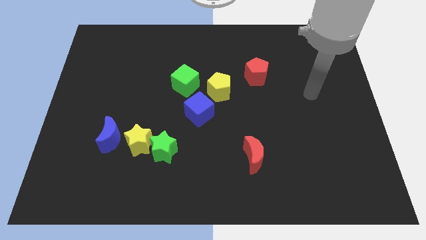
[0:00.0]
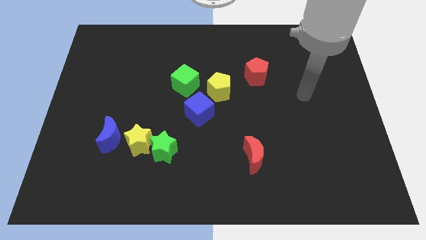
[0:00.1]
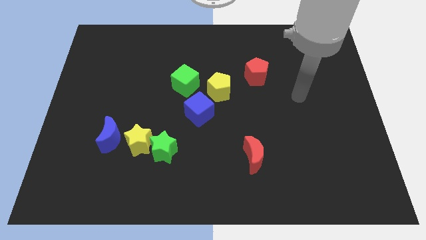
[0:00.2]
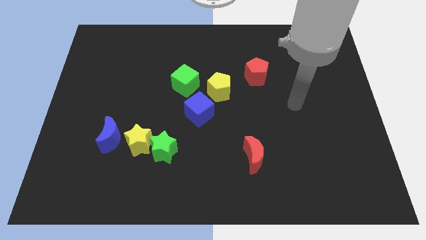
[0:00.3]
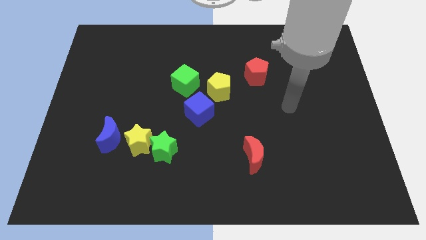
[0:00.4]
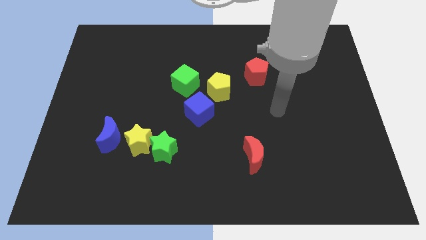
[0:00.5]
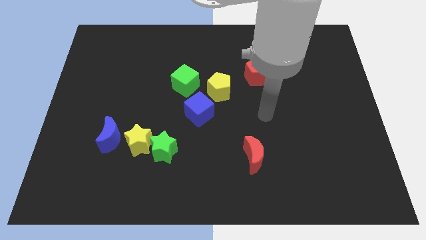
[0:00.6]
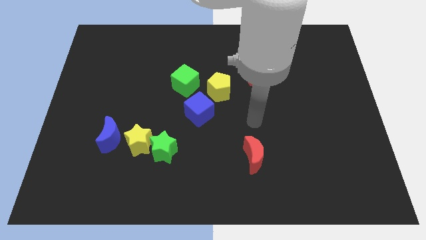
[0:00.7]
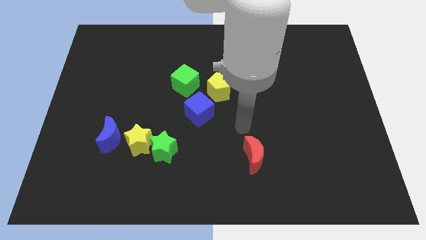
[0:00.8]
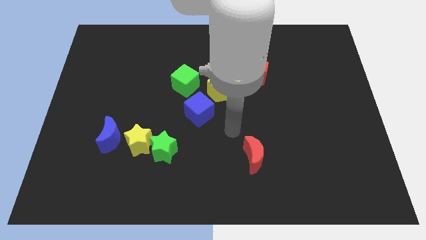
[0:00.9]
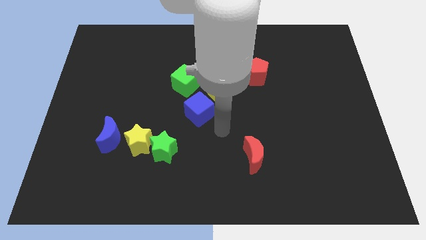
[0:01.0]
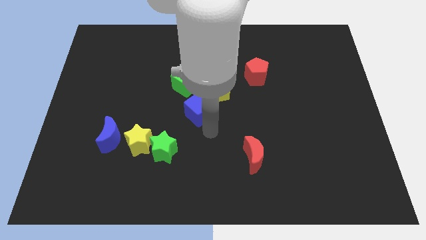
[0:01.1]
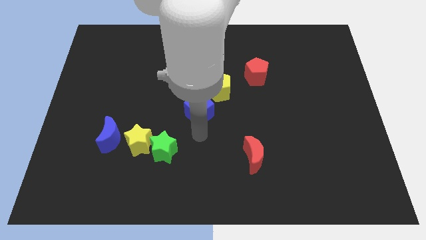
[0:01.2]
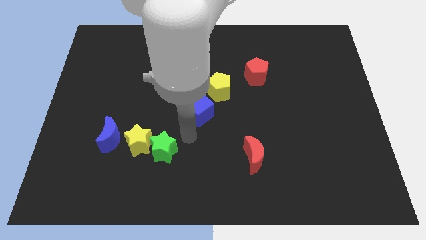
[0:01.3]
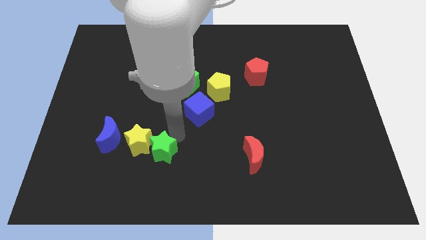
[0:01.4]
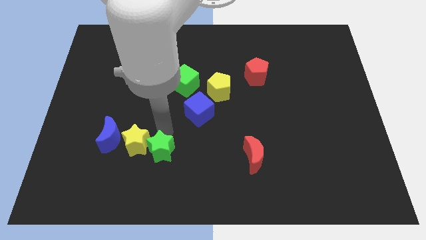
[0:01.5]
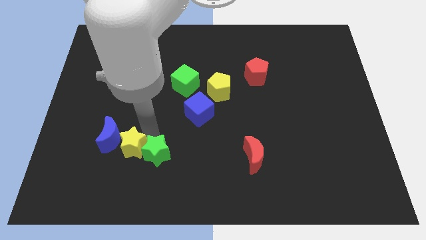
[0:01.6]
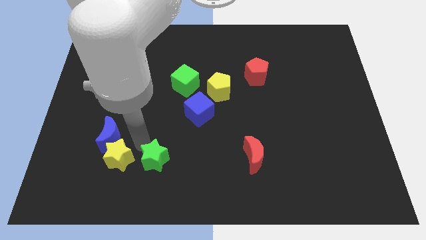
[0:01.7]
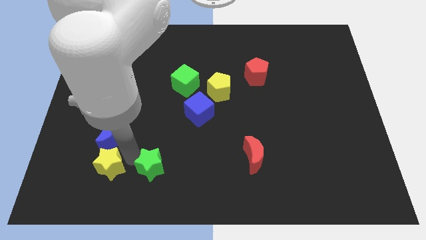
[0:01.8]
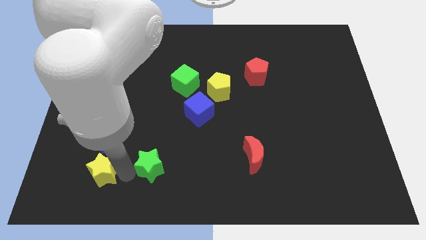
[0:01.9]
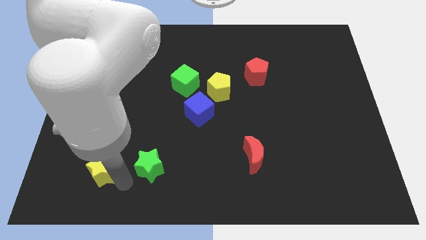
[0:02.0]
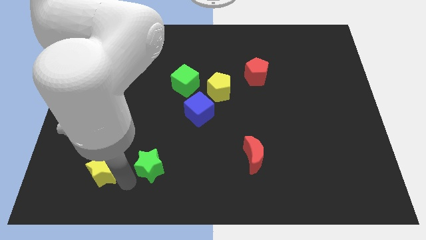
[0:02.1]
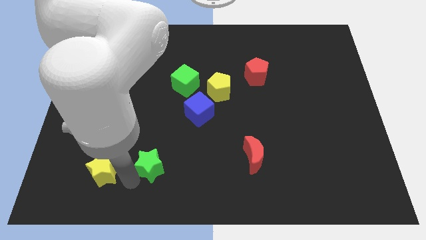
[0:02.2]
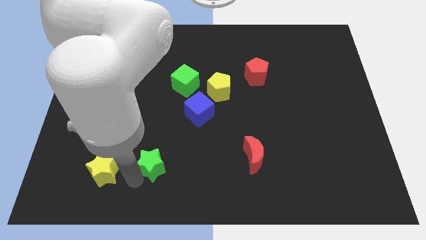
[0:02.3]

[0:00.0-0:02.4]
separate the green star from the yellow star

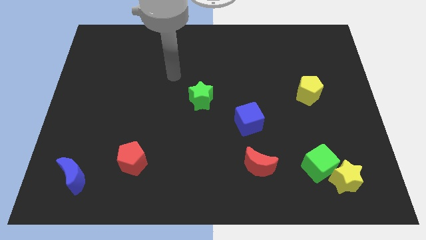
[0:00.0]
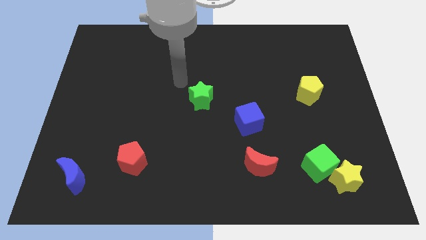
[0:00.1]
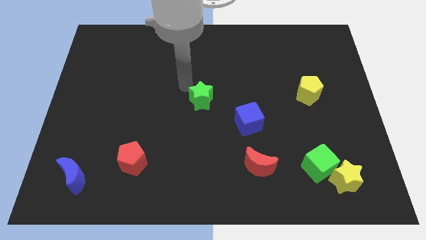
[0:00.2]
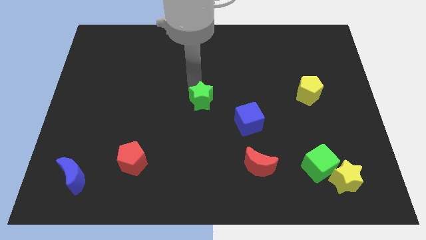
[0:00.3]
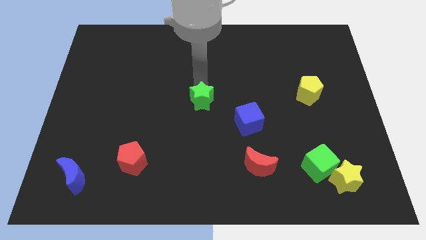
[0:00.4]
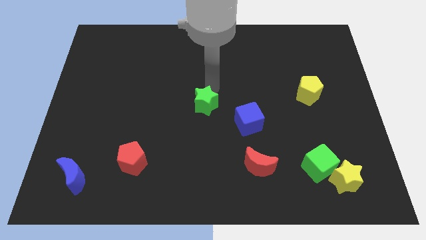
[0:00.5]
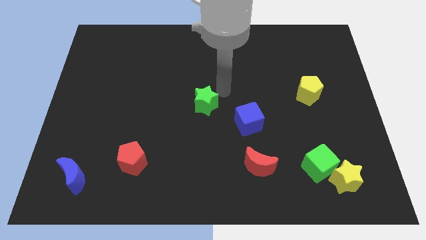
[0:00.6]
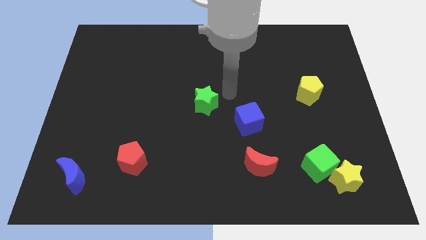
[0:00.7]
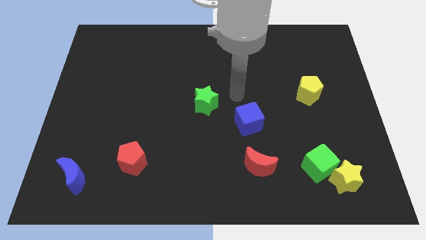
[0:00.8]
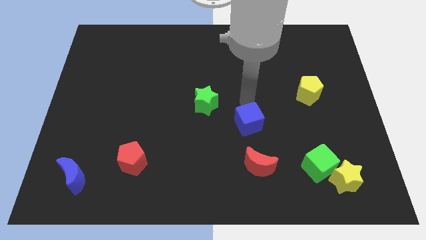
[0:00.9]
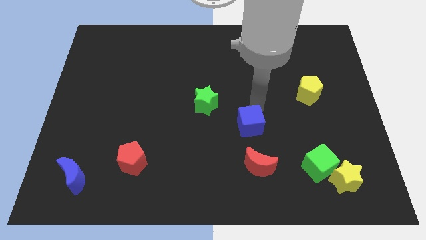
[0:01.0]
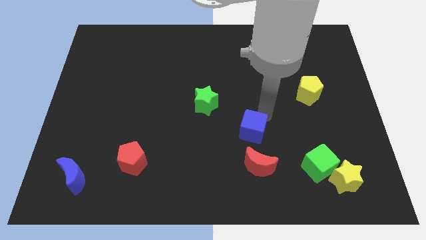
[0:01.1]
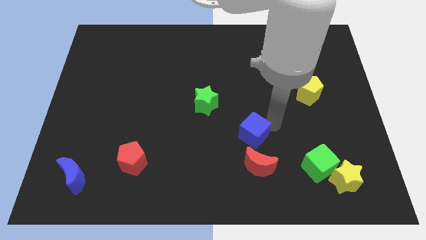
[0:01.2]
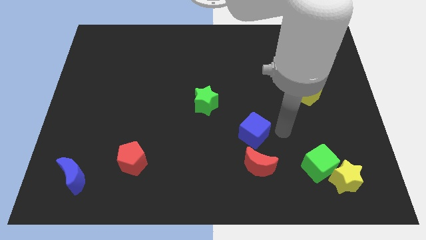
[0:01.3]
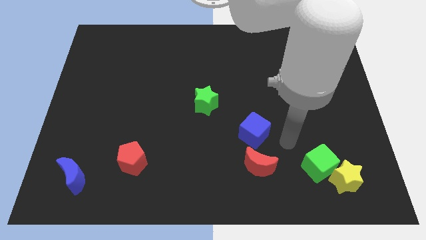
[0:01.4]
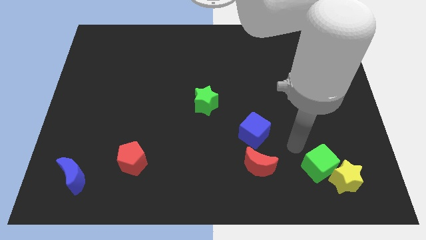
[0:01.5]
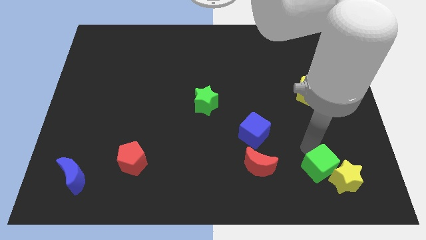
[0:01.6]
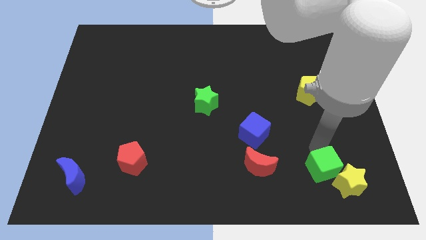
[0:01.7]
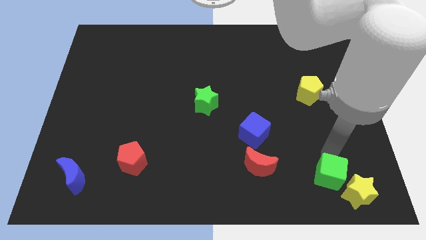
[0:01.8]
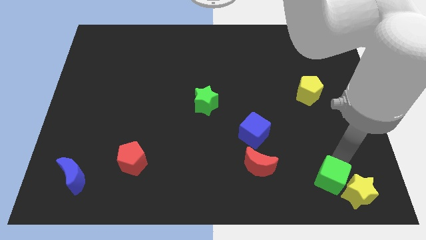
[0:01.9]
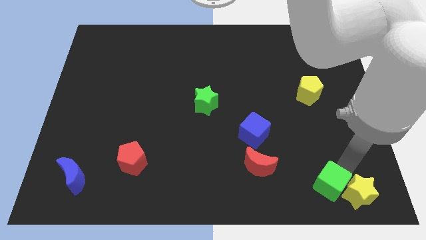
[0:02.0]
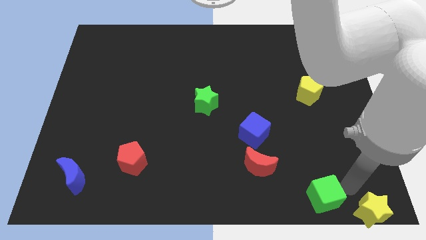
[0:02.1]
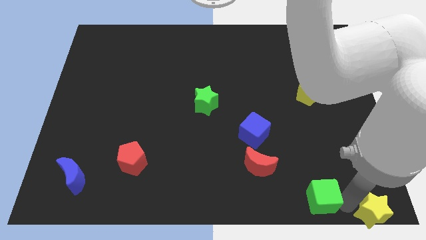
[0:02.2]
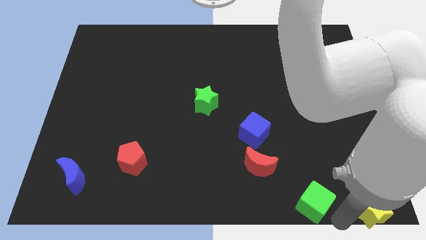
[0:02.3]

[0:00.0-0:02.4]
move the green cube away from the yellow star

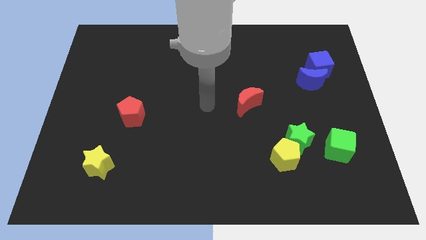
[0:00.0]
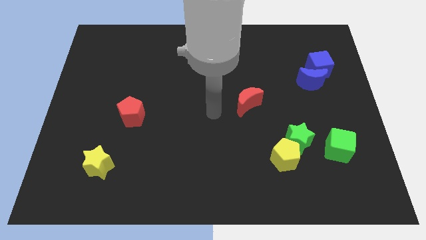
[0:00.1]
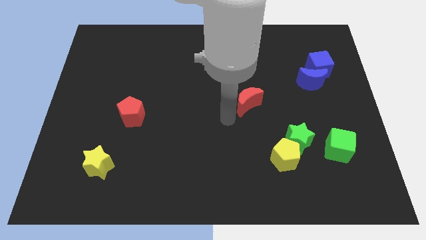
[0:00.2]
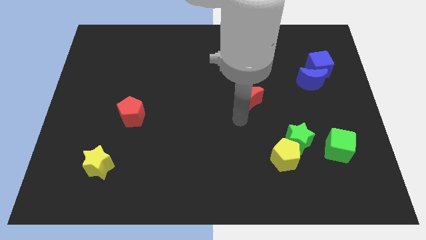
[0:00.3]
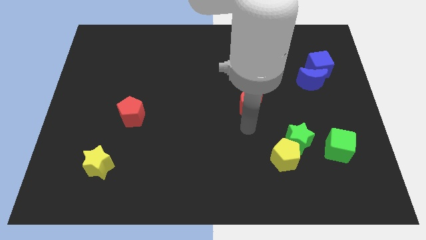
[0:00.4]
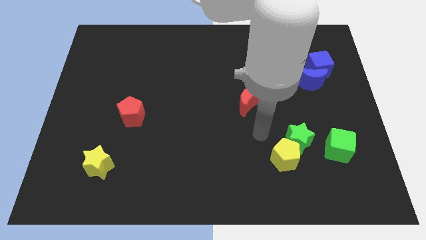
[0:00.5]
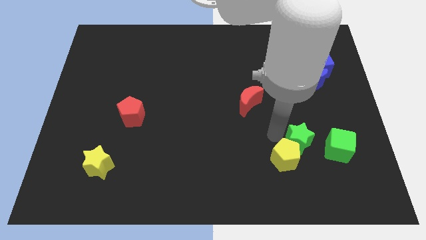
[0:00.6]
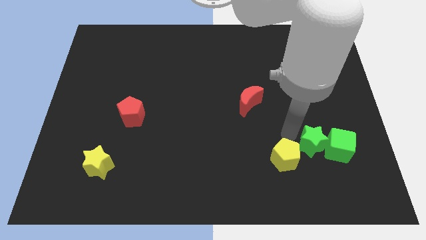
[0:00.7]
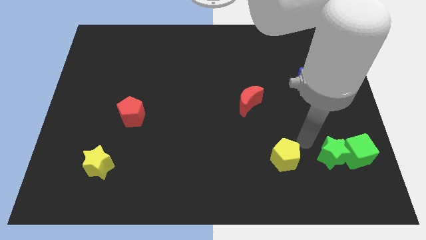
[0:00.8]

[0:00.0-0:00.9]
pull the yellow pentagon apart from the green star

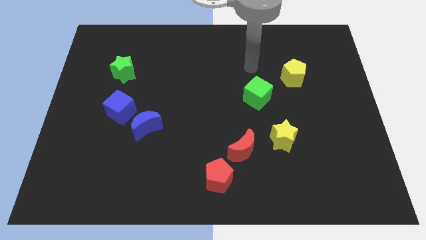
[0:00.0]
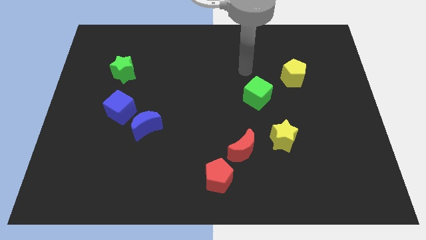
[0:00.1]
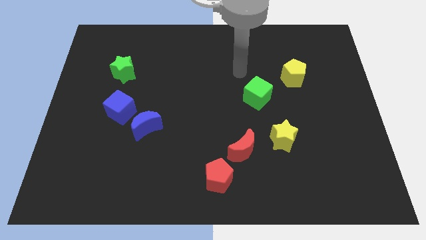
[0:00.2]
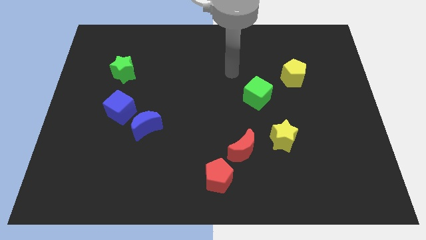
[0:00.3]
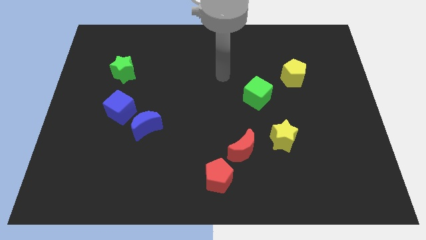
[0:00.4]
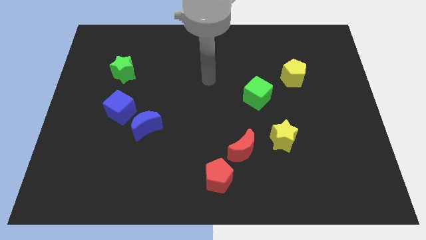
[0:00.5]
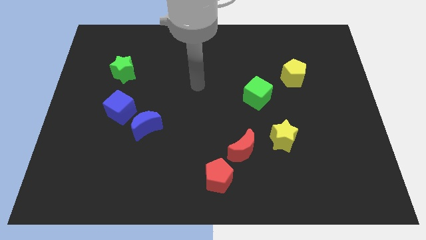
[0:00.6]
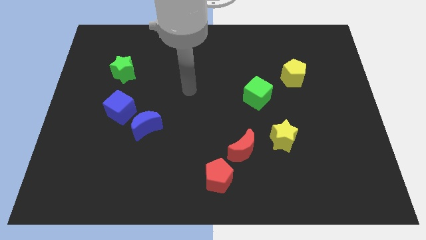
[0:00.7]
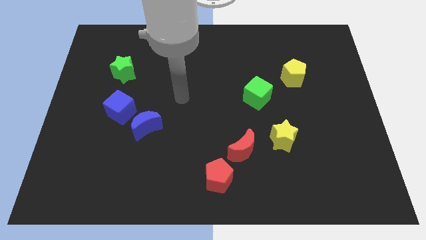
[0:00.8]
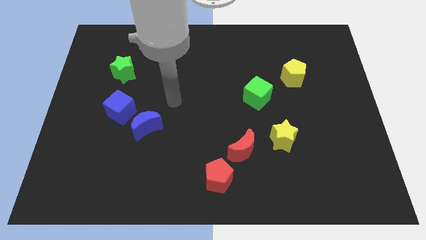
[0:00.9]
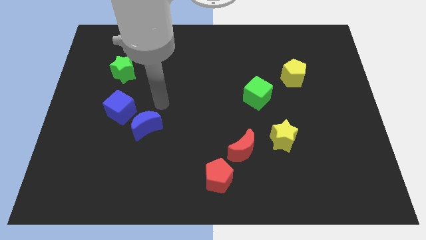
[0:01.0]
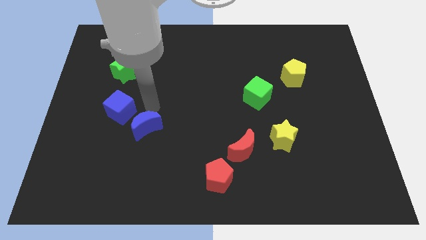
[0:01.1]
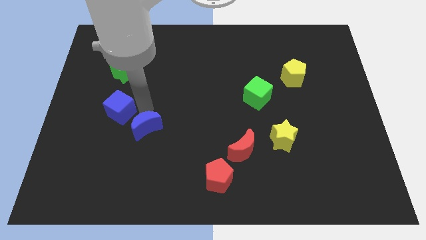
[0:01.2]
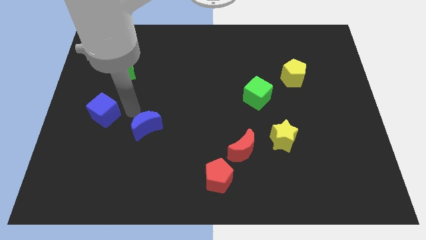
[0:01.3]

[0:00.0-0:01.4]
pull the blue moon apart from the blue cube

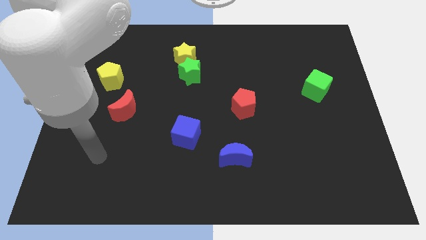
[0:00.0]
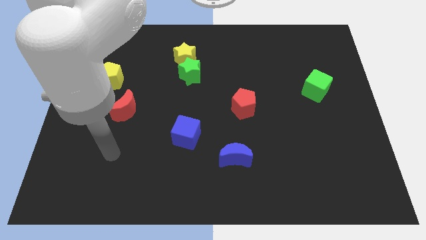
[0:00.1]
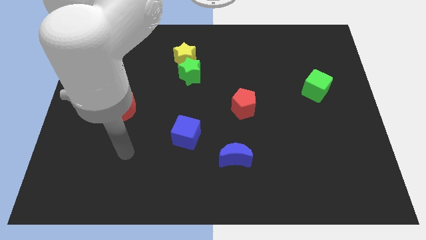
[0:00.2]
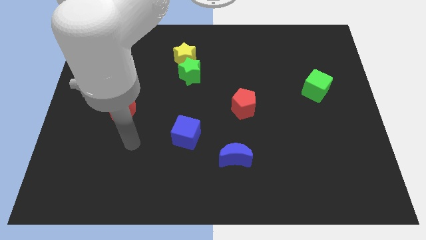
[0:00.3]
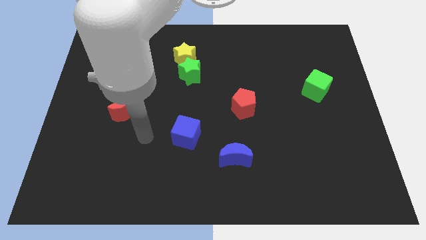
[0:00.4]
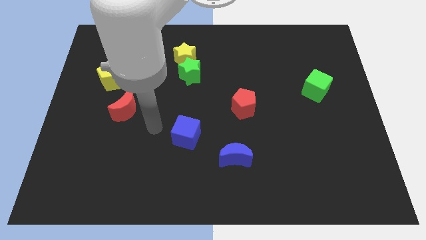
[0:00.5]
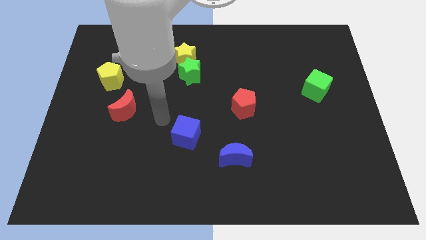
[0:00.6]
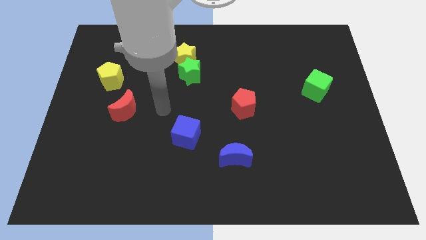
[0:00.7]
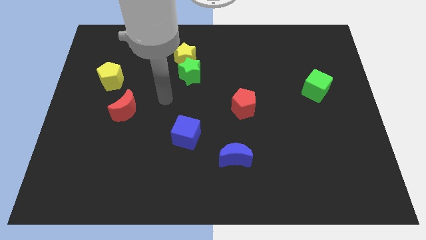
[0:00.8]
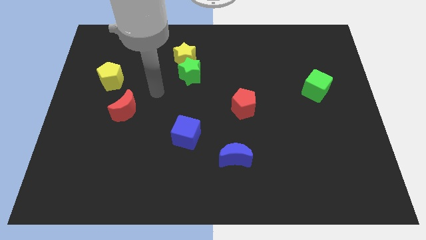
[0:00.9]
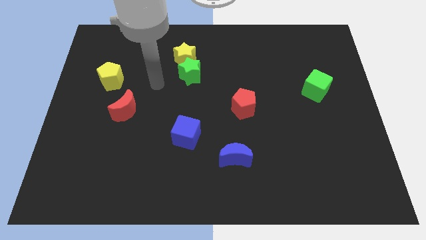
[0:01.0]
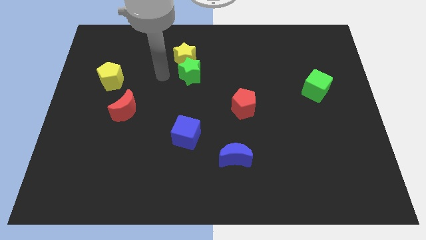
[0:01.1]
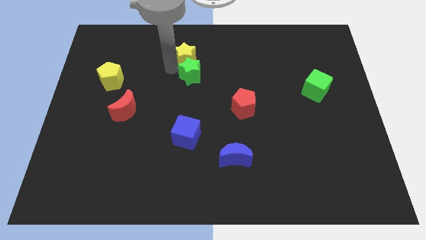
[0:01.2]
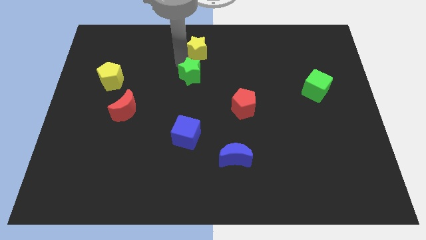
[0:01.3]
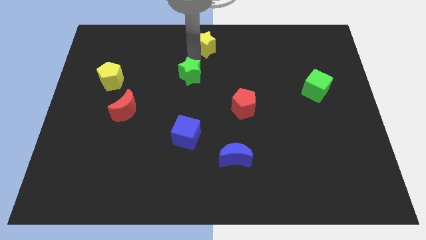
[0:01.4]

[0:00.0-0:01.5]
move the green star away from the yellow star

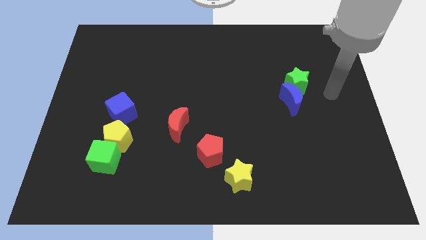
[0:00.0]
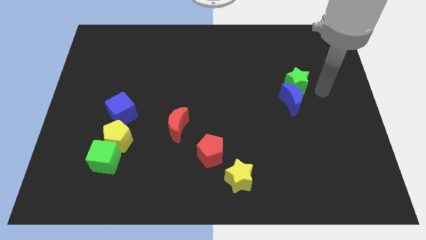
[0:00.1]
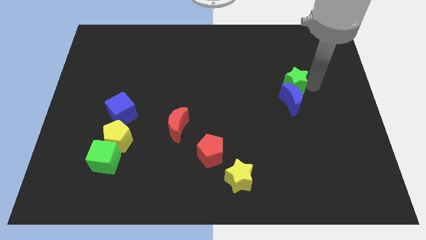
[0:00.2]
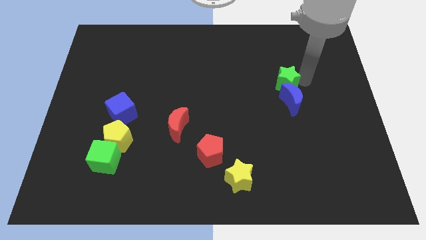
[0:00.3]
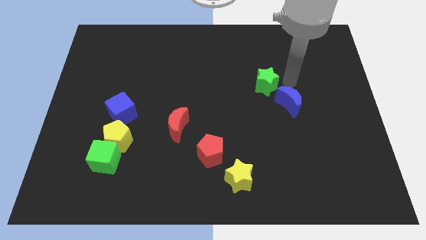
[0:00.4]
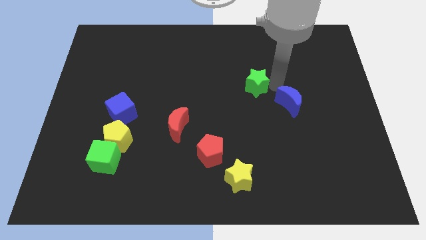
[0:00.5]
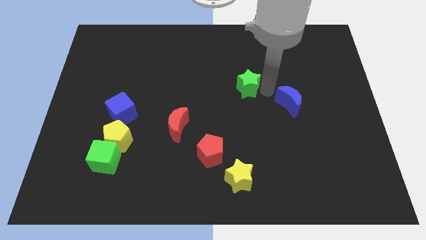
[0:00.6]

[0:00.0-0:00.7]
pull the blue moon apart from the green star
